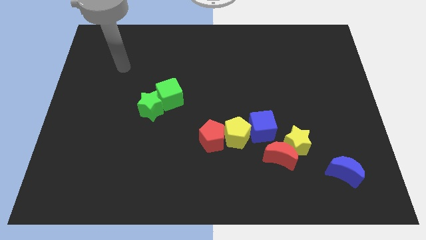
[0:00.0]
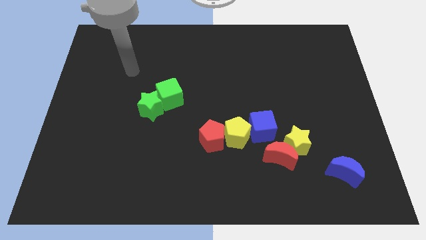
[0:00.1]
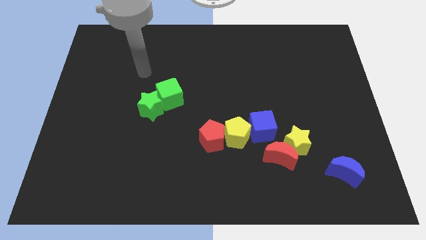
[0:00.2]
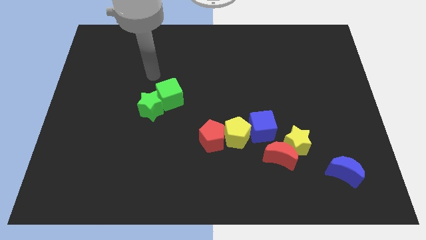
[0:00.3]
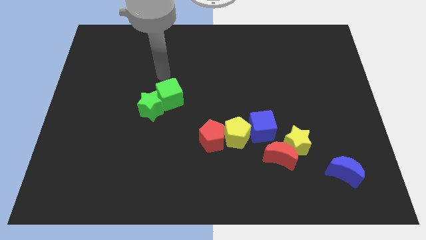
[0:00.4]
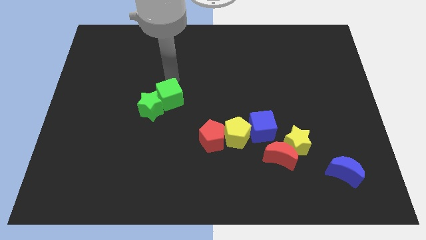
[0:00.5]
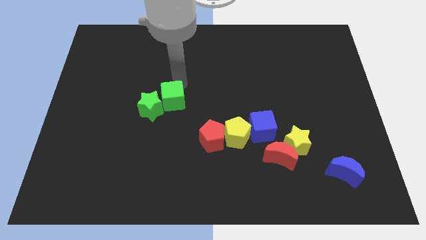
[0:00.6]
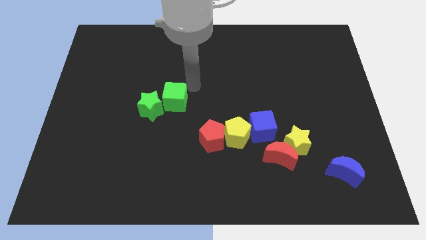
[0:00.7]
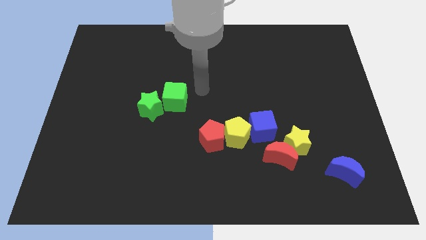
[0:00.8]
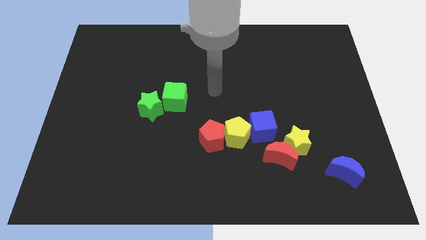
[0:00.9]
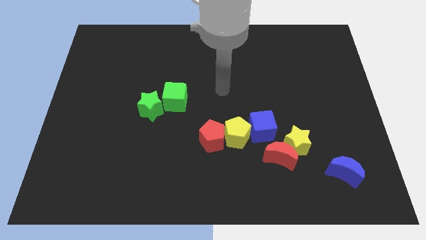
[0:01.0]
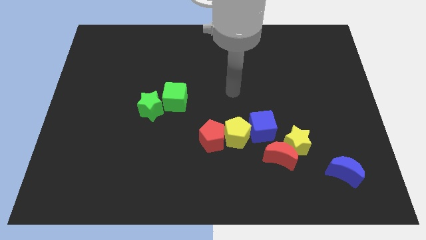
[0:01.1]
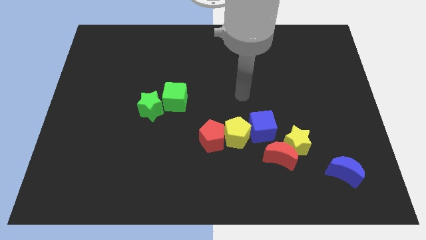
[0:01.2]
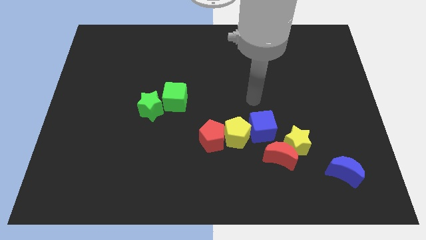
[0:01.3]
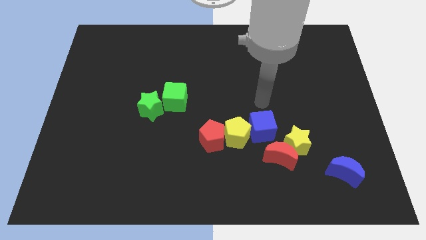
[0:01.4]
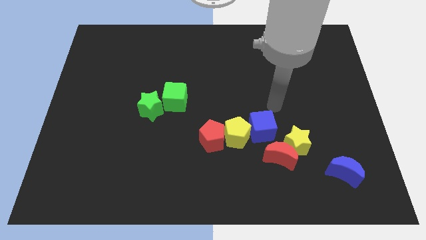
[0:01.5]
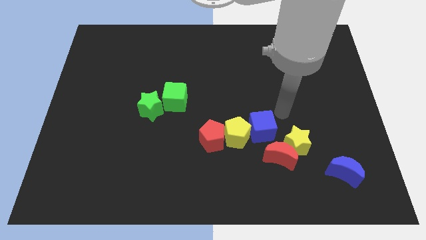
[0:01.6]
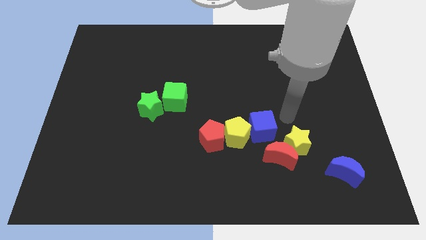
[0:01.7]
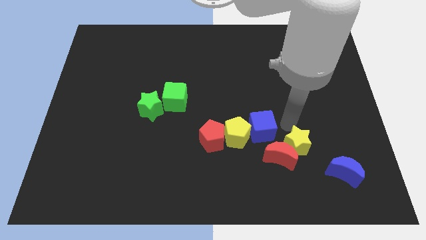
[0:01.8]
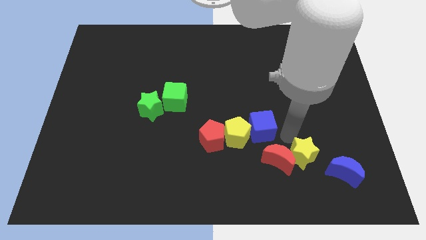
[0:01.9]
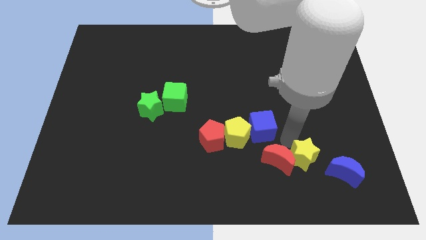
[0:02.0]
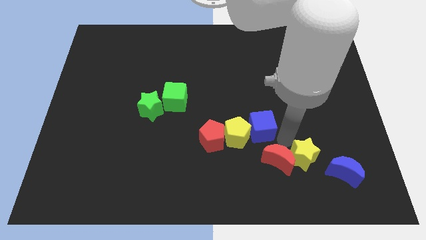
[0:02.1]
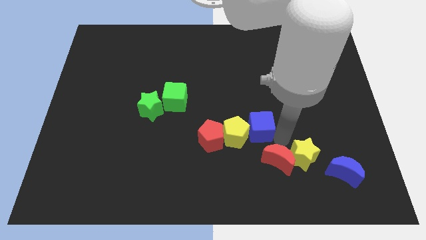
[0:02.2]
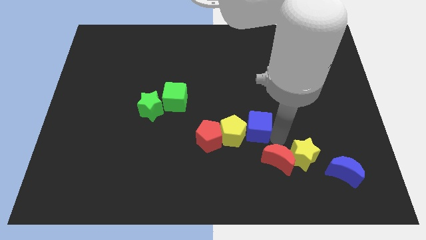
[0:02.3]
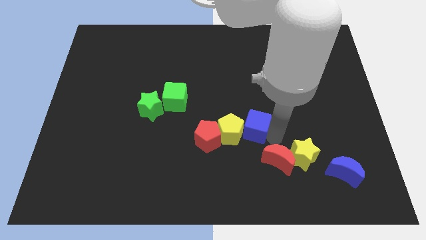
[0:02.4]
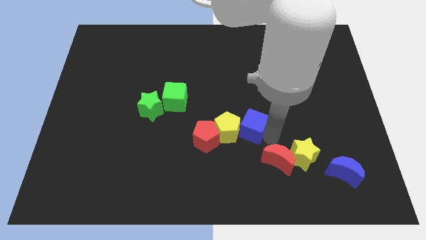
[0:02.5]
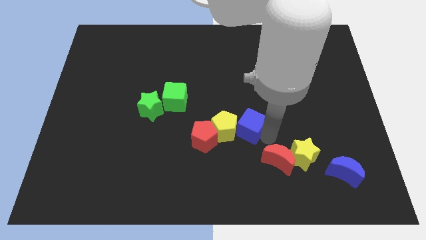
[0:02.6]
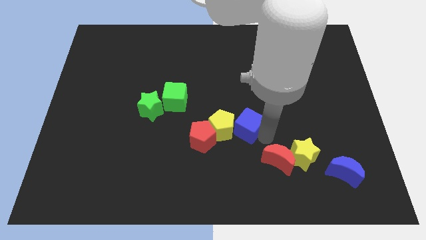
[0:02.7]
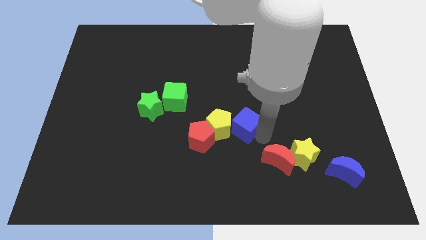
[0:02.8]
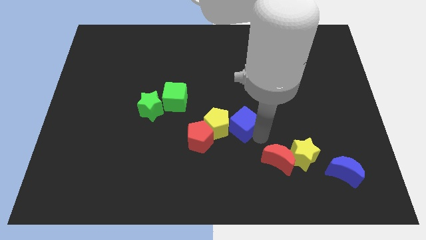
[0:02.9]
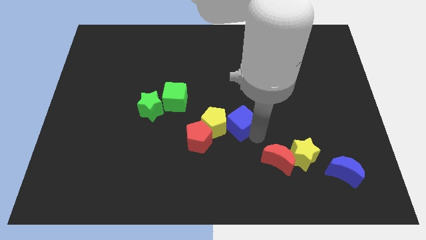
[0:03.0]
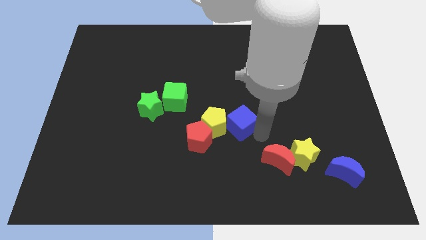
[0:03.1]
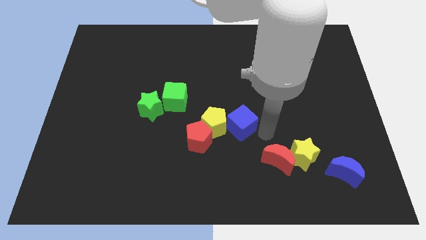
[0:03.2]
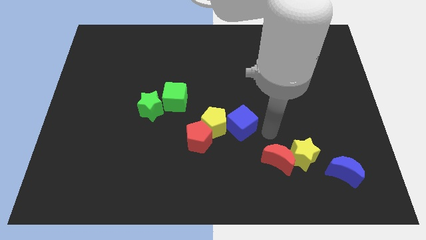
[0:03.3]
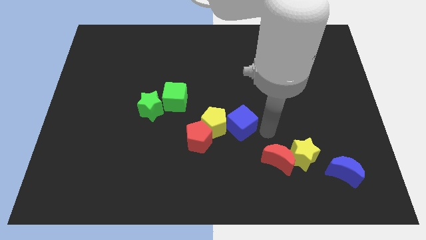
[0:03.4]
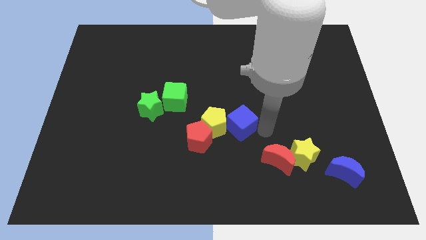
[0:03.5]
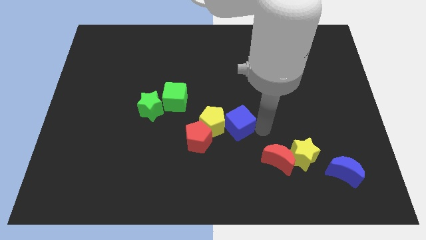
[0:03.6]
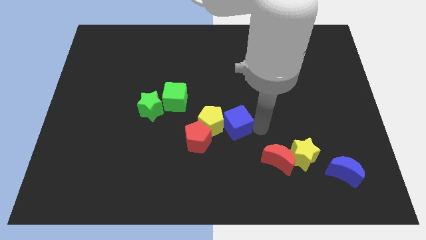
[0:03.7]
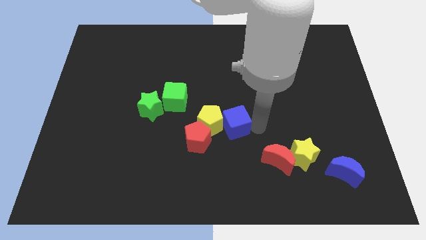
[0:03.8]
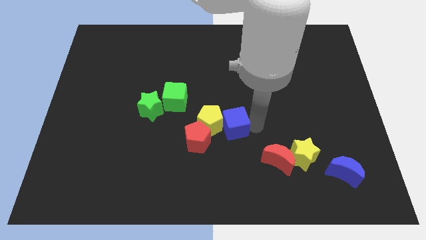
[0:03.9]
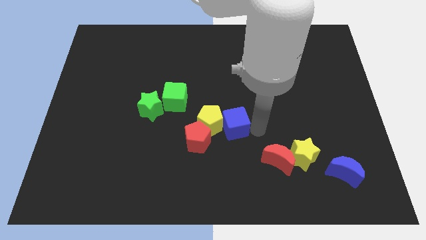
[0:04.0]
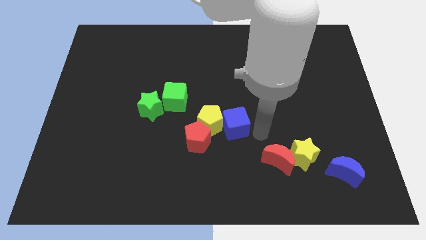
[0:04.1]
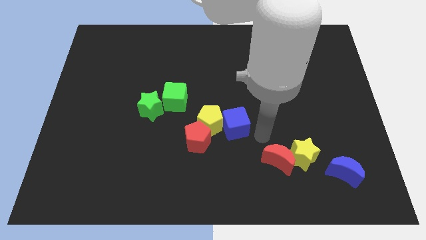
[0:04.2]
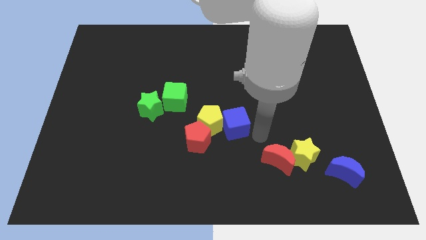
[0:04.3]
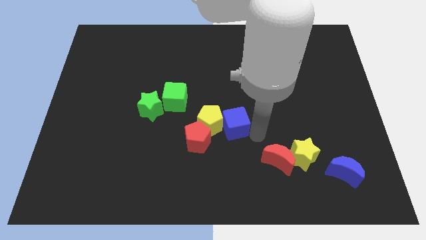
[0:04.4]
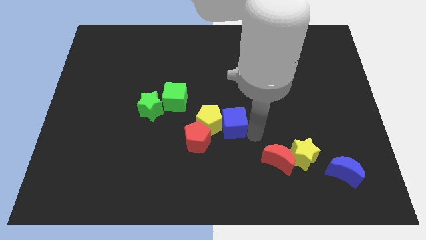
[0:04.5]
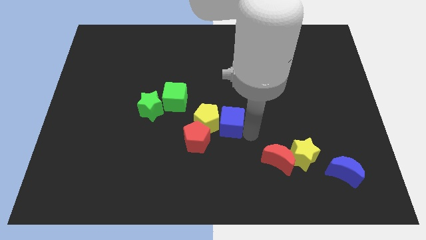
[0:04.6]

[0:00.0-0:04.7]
slightly move the blue cube to the left

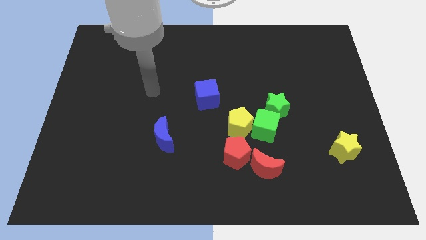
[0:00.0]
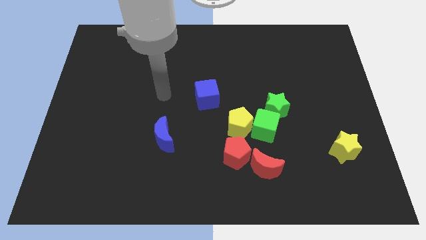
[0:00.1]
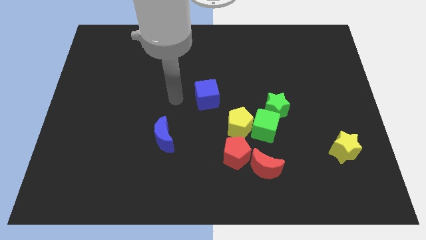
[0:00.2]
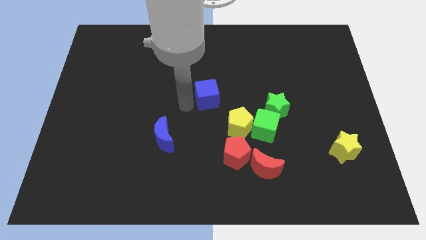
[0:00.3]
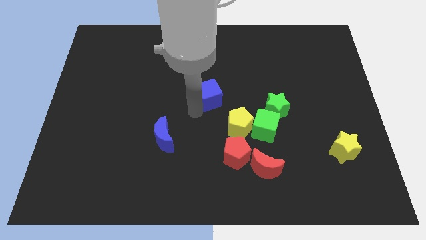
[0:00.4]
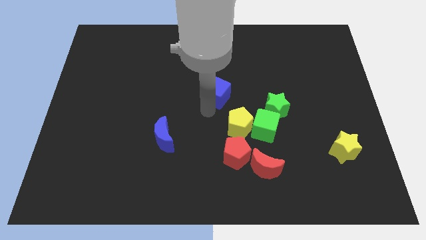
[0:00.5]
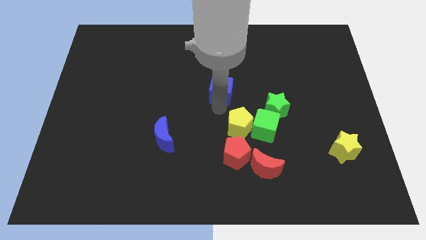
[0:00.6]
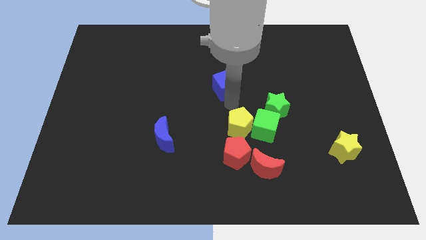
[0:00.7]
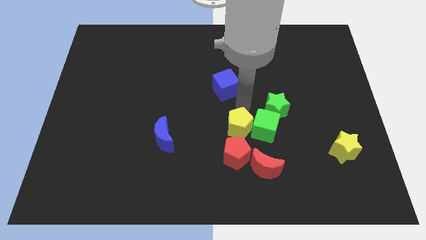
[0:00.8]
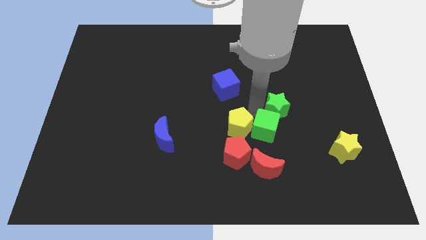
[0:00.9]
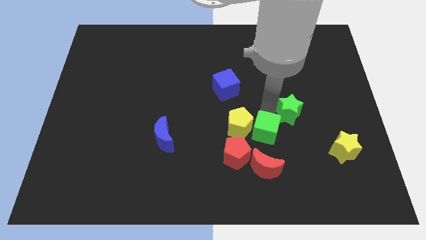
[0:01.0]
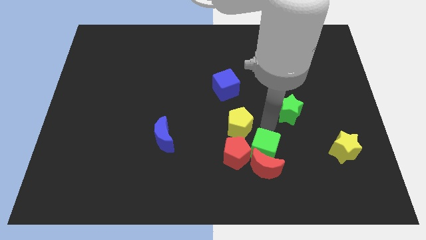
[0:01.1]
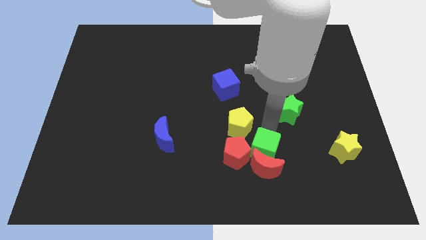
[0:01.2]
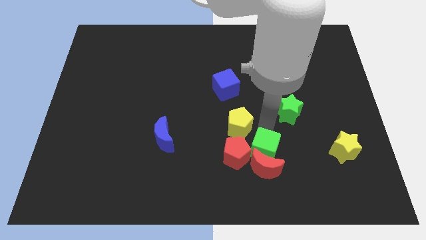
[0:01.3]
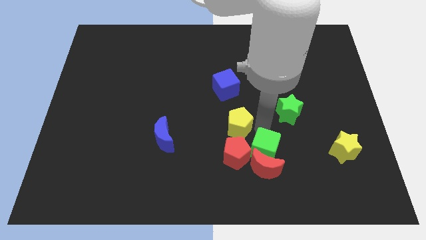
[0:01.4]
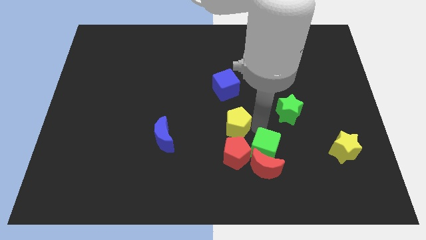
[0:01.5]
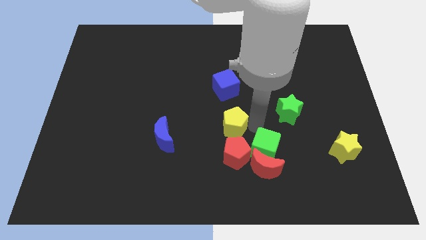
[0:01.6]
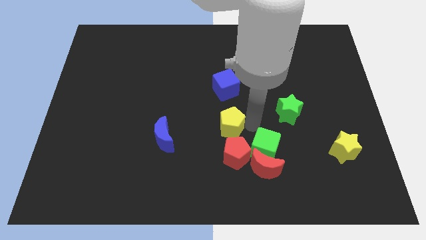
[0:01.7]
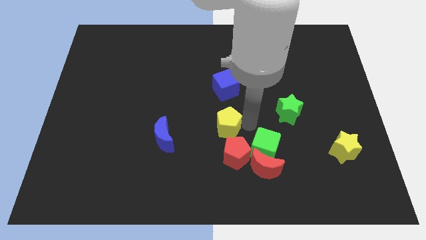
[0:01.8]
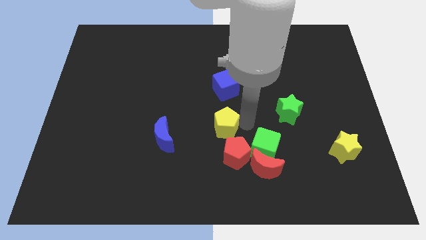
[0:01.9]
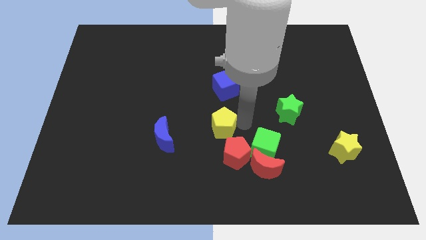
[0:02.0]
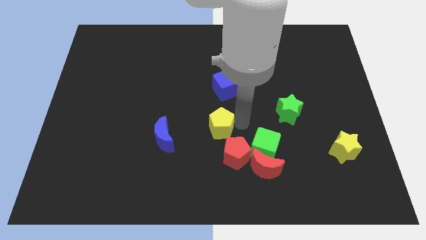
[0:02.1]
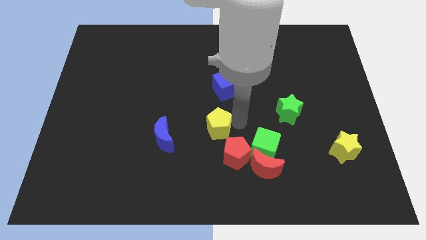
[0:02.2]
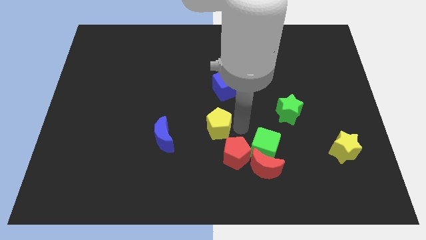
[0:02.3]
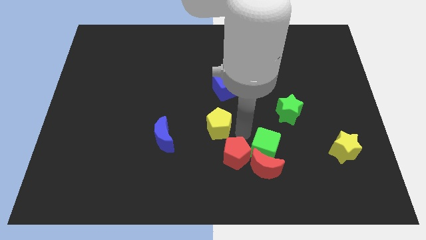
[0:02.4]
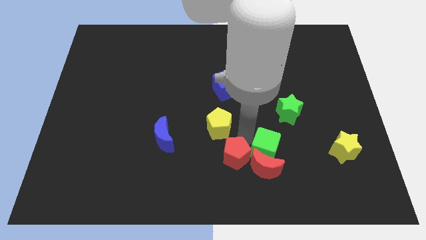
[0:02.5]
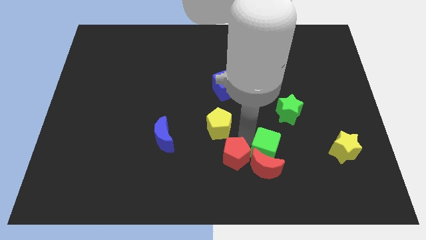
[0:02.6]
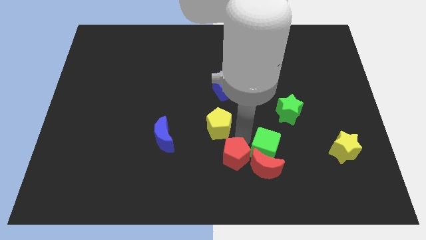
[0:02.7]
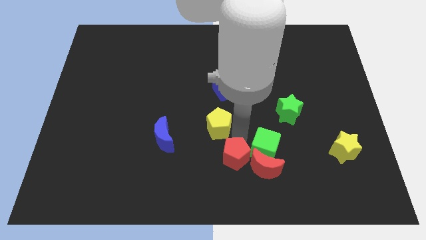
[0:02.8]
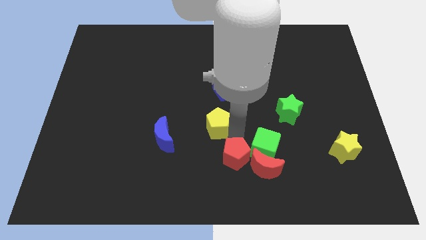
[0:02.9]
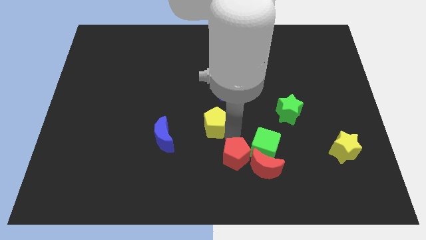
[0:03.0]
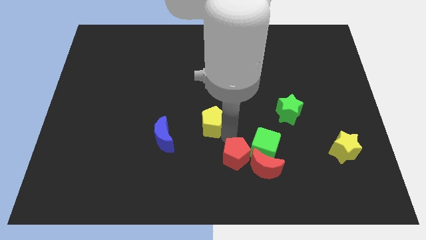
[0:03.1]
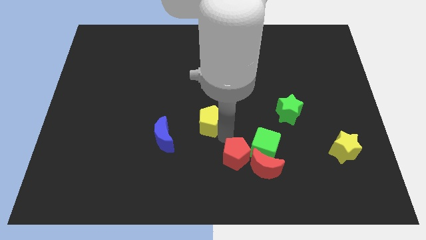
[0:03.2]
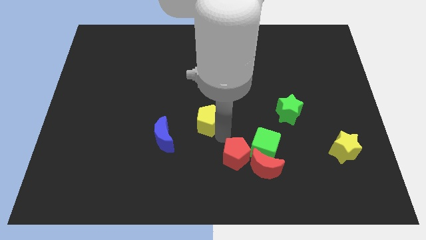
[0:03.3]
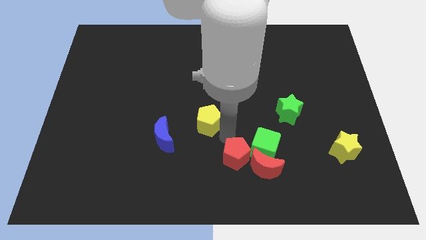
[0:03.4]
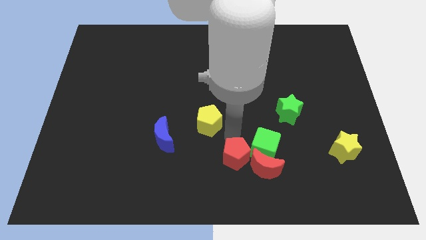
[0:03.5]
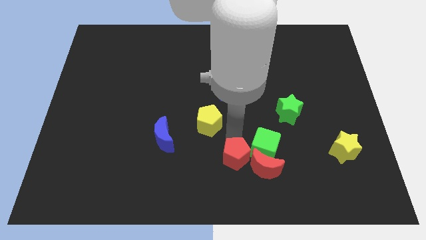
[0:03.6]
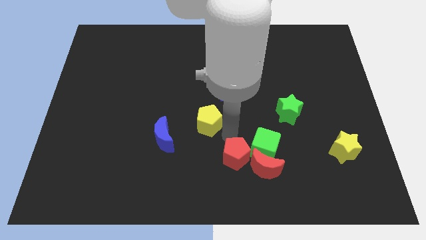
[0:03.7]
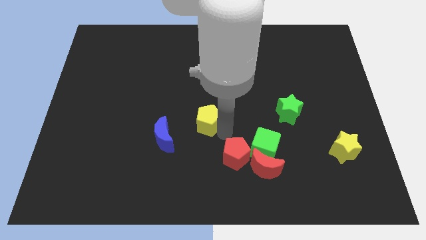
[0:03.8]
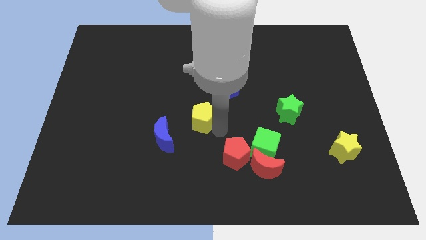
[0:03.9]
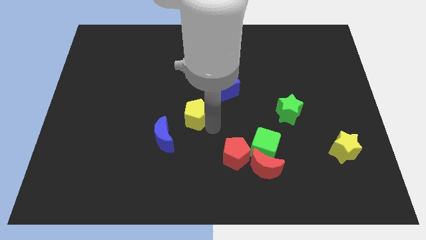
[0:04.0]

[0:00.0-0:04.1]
slide the yellow pentagon a little upwards and then left
